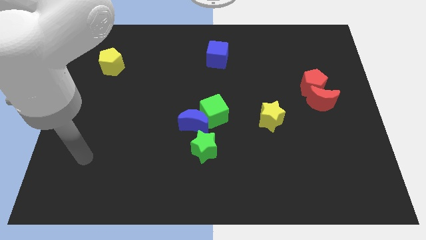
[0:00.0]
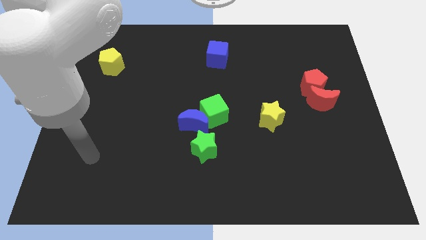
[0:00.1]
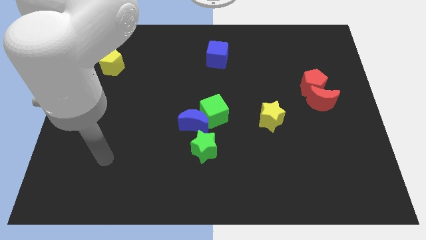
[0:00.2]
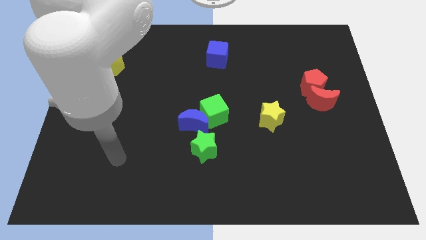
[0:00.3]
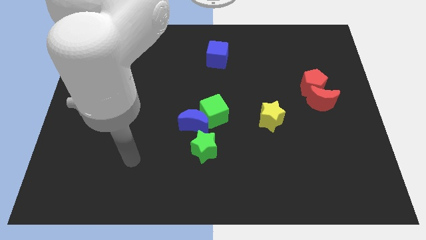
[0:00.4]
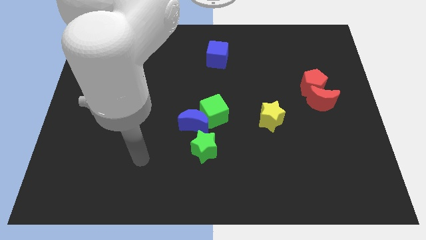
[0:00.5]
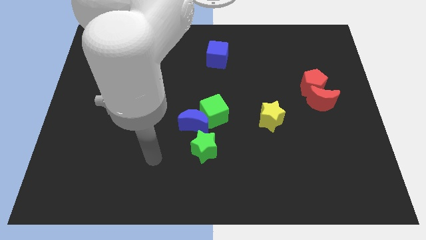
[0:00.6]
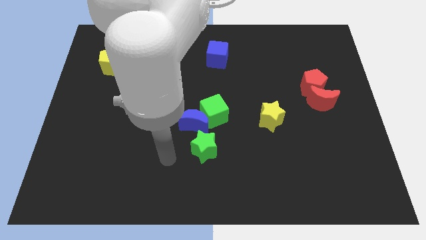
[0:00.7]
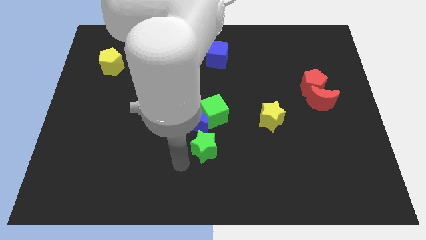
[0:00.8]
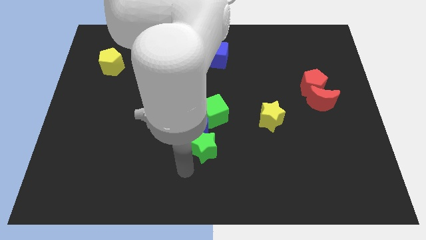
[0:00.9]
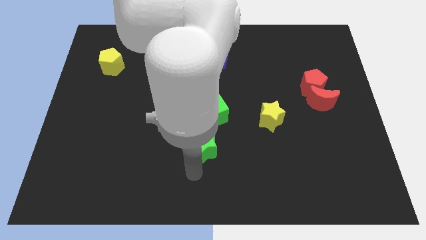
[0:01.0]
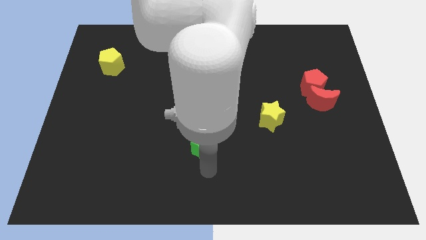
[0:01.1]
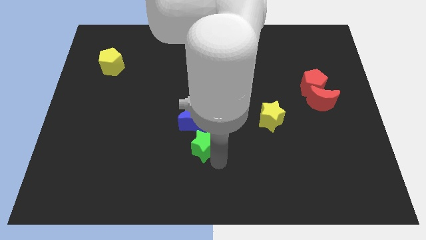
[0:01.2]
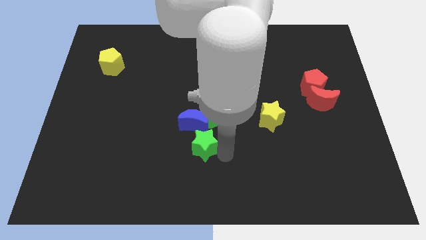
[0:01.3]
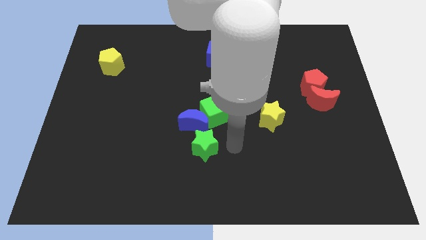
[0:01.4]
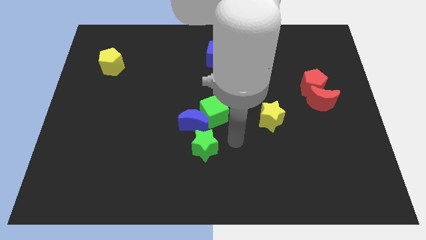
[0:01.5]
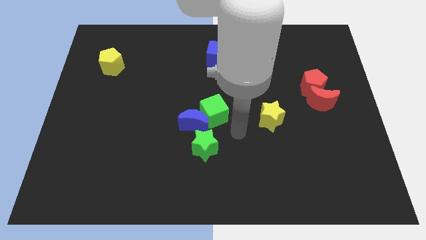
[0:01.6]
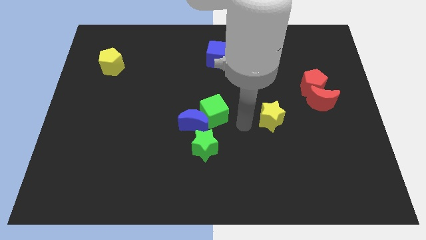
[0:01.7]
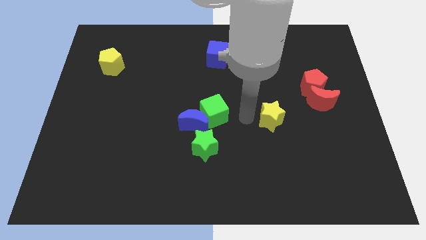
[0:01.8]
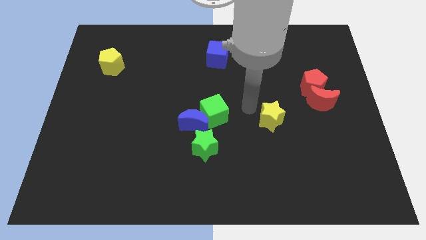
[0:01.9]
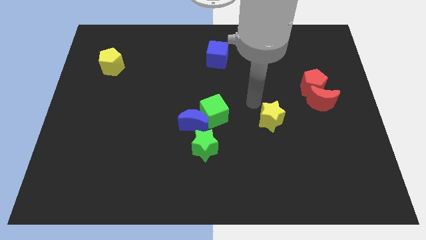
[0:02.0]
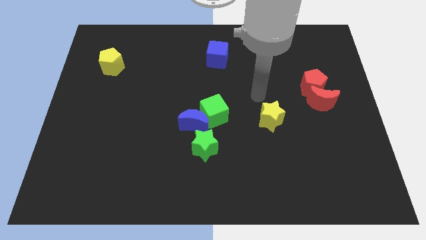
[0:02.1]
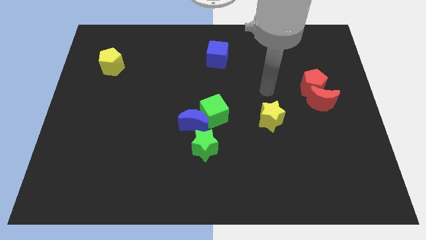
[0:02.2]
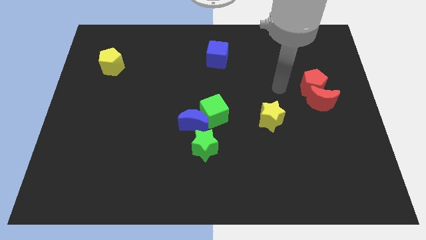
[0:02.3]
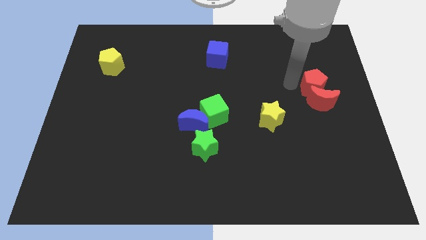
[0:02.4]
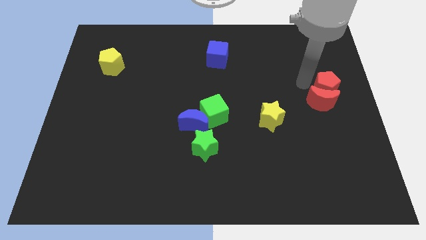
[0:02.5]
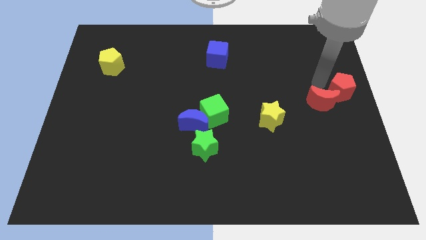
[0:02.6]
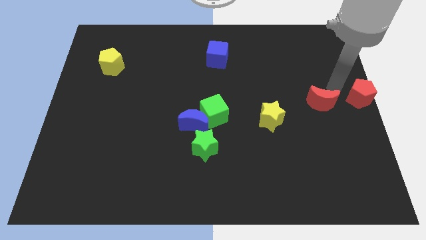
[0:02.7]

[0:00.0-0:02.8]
separate the red moon from the red pentagon

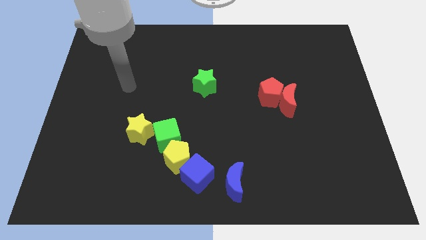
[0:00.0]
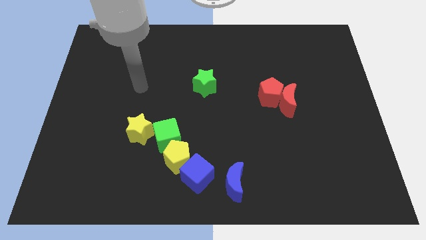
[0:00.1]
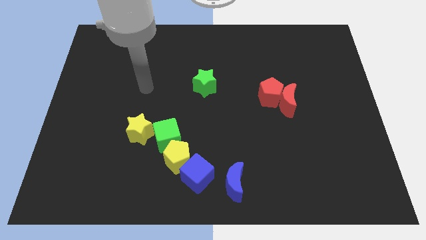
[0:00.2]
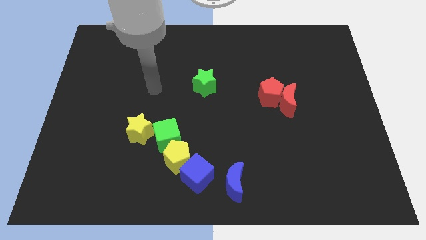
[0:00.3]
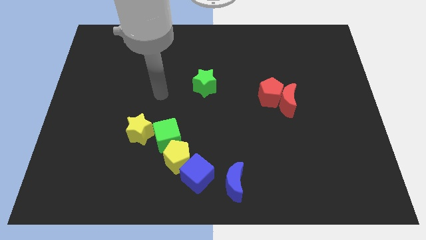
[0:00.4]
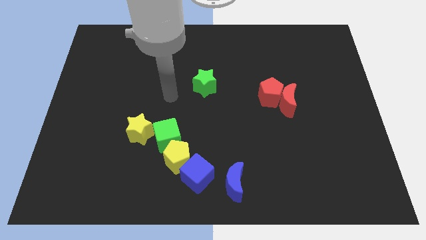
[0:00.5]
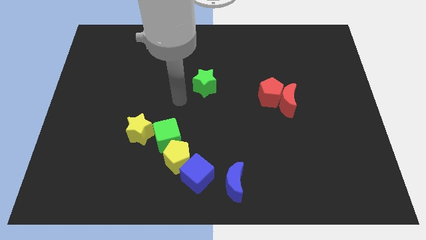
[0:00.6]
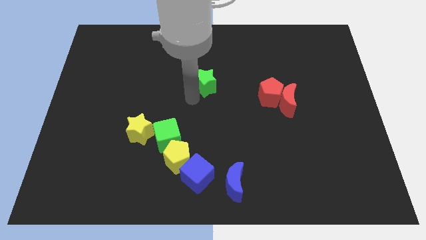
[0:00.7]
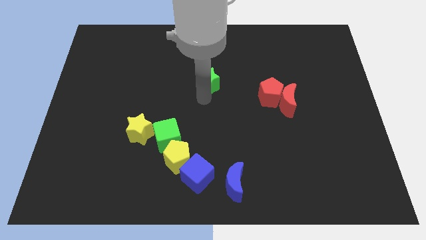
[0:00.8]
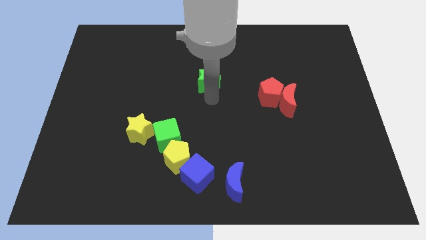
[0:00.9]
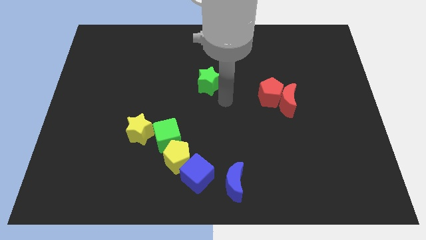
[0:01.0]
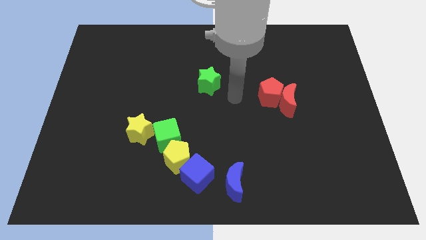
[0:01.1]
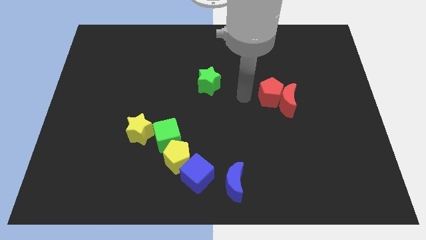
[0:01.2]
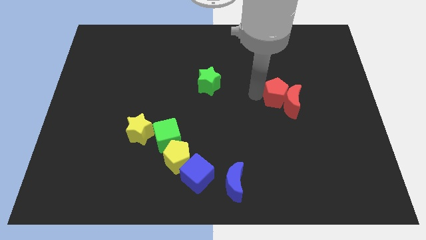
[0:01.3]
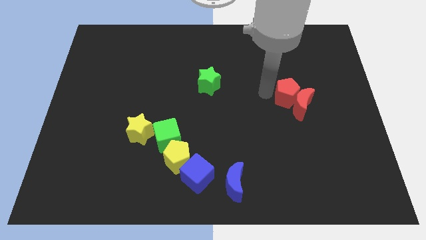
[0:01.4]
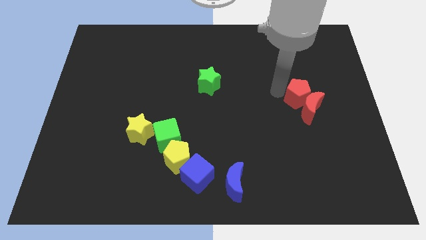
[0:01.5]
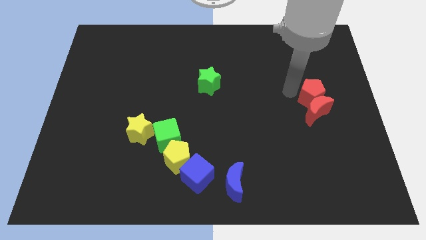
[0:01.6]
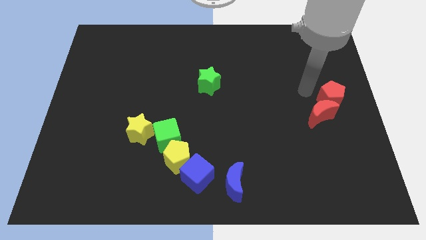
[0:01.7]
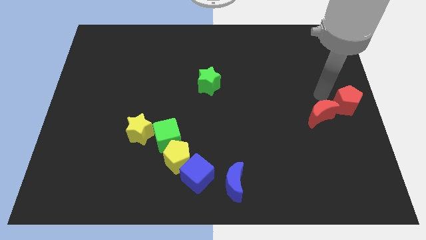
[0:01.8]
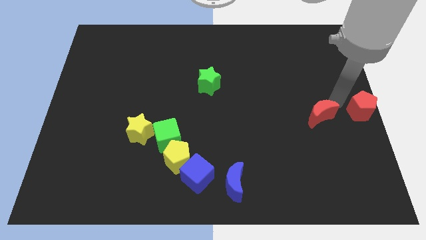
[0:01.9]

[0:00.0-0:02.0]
pull the red moon apart from the red pentagon

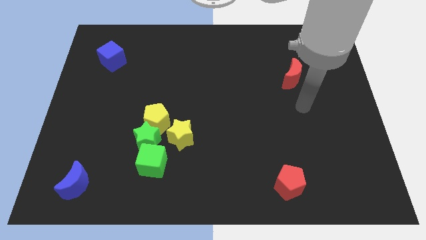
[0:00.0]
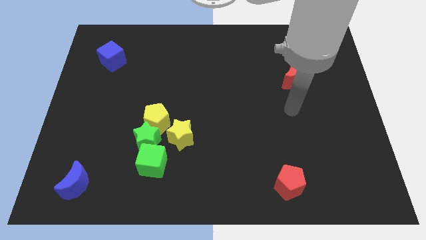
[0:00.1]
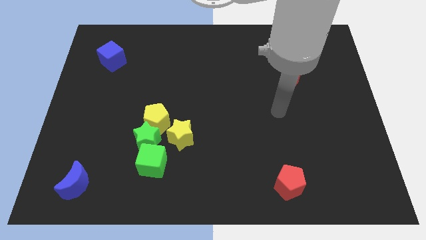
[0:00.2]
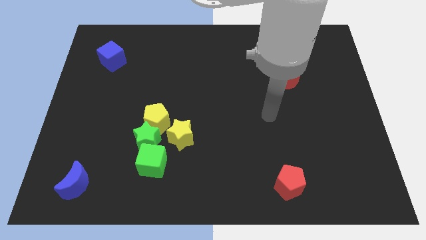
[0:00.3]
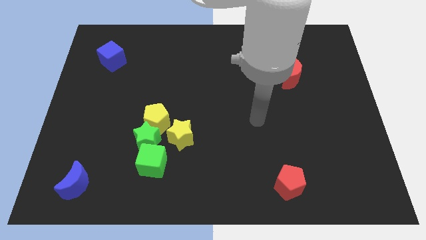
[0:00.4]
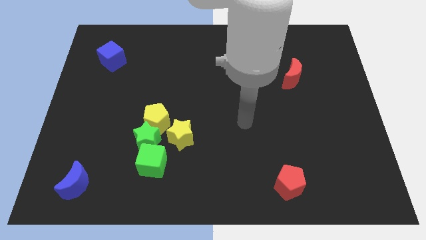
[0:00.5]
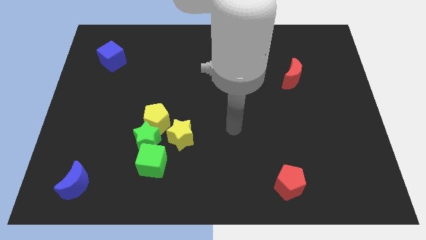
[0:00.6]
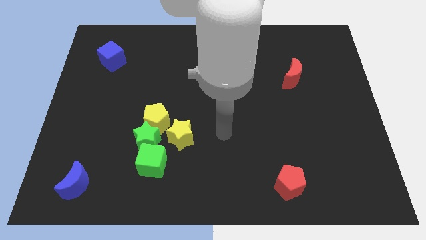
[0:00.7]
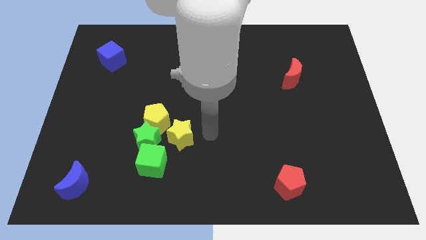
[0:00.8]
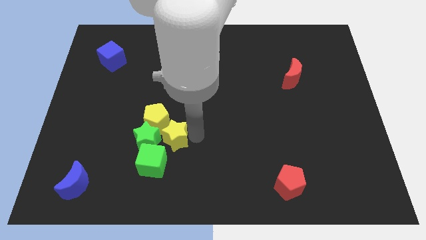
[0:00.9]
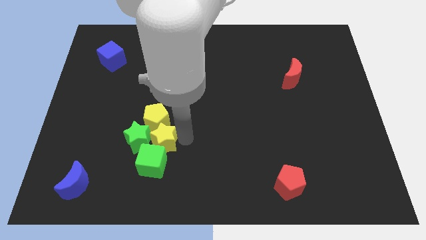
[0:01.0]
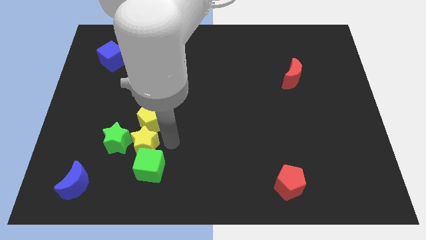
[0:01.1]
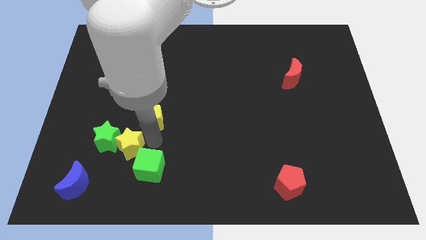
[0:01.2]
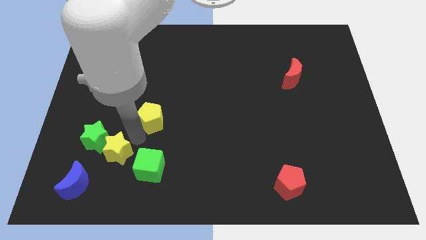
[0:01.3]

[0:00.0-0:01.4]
pull the yellow pentagon apart from the green star and yellow star

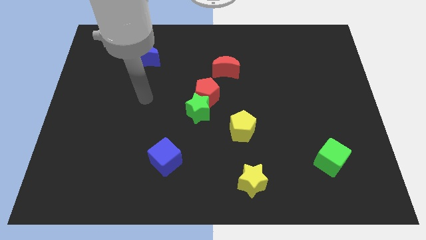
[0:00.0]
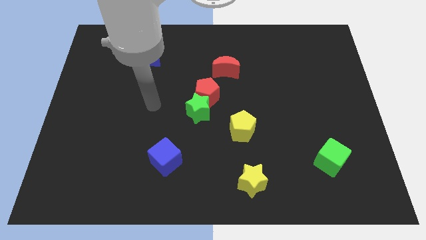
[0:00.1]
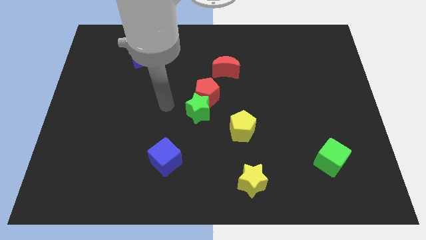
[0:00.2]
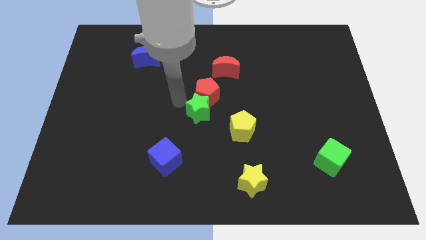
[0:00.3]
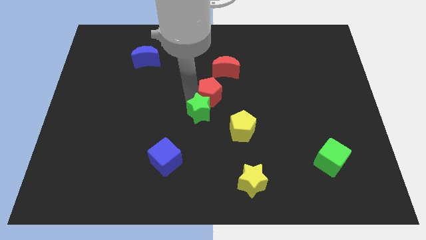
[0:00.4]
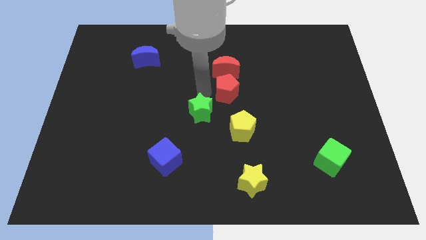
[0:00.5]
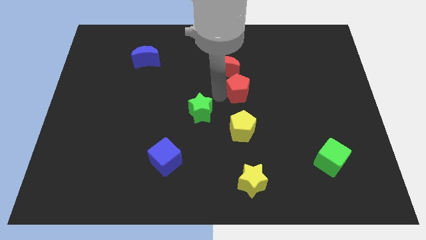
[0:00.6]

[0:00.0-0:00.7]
pull the green star apart from the red pentagon

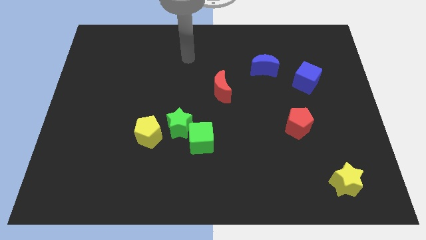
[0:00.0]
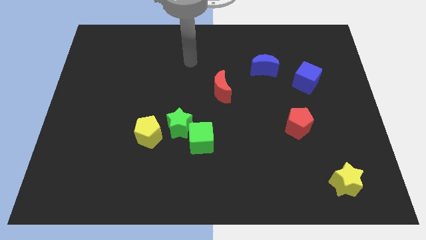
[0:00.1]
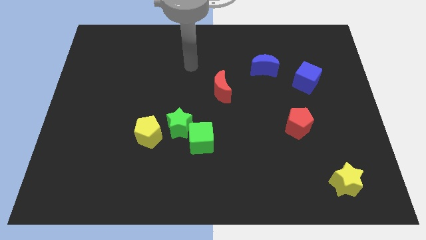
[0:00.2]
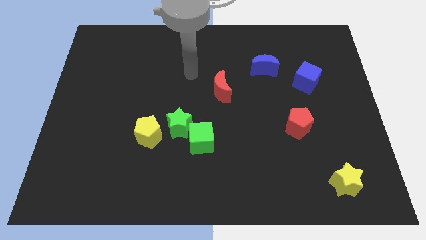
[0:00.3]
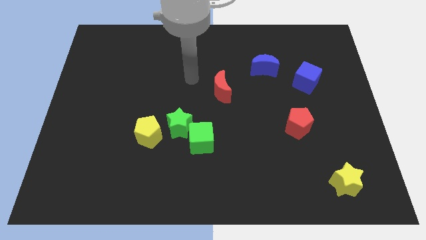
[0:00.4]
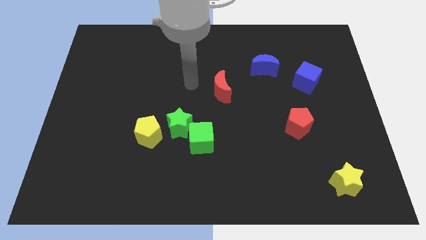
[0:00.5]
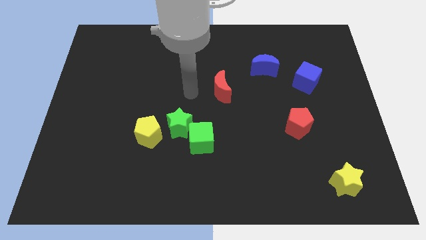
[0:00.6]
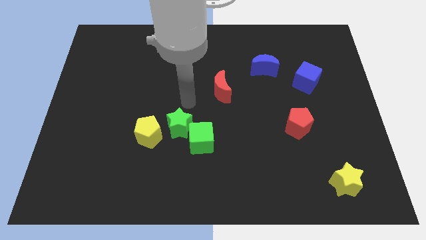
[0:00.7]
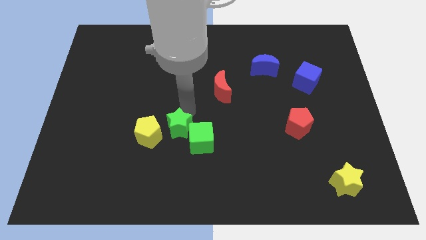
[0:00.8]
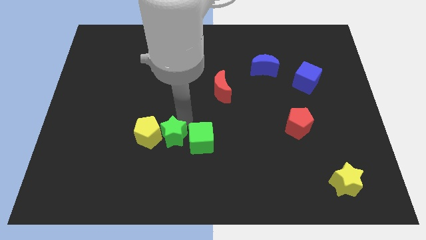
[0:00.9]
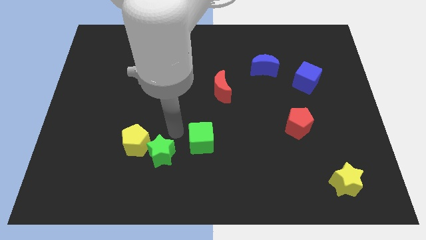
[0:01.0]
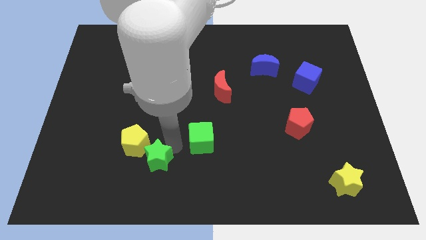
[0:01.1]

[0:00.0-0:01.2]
pull the green cube apart from the green star

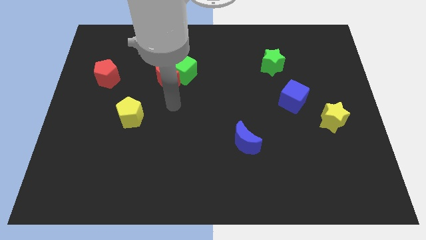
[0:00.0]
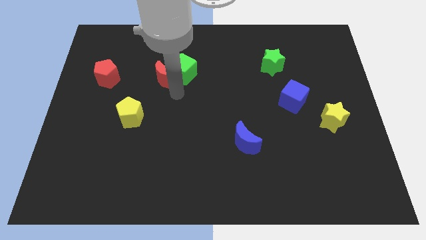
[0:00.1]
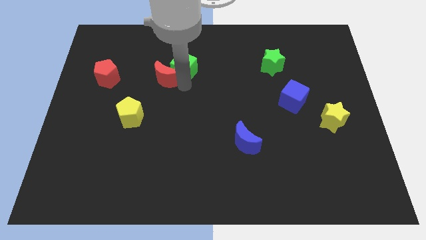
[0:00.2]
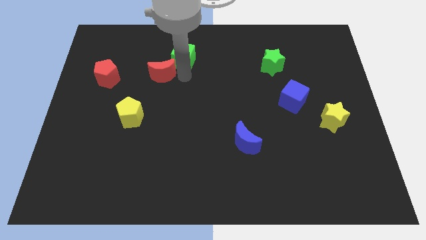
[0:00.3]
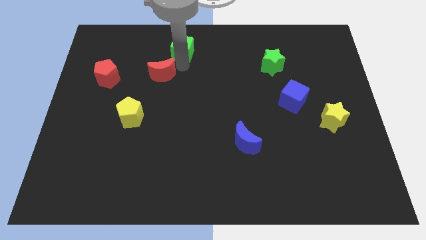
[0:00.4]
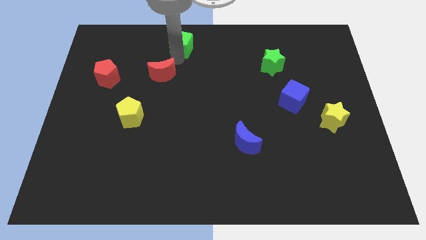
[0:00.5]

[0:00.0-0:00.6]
separate the red moon from the green cube

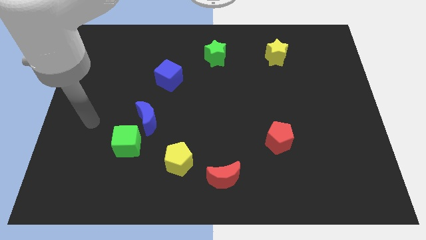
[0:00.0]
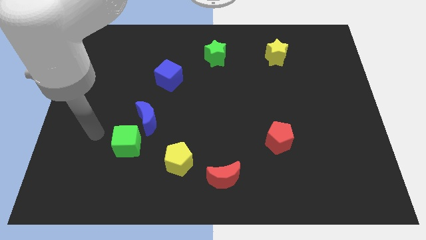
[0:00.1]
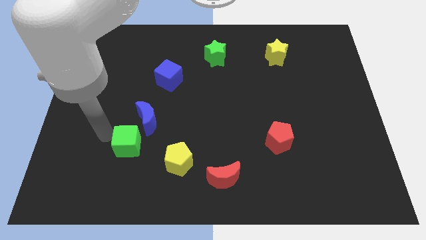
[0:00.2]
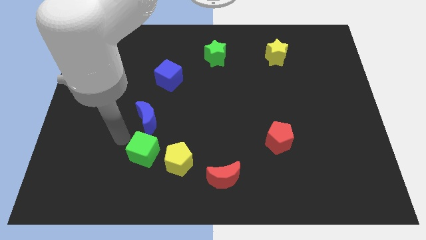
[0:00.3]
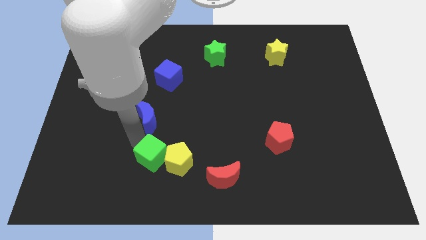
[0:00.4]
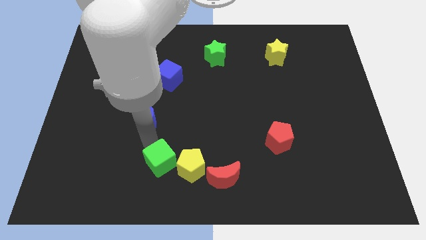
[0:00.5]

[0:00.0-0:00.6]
pull the blue moon apart from the green cube
